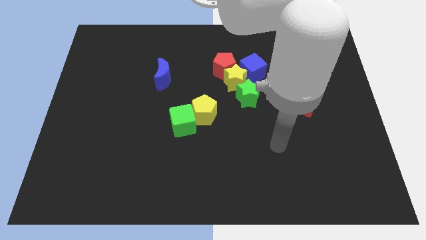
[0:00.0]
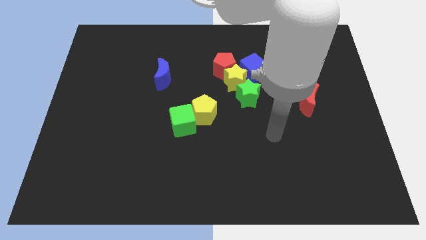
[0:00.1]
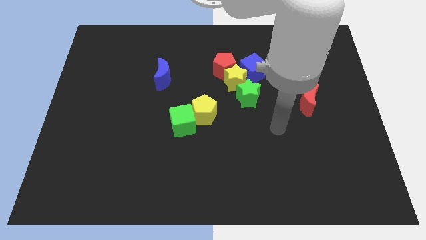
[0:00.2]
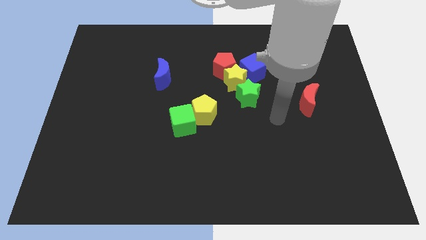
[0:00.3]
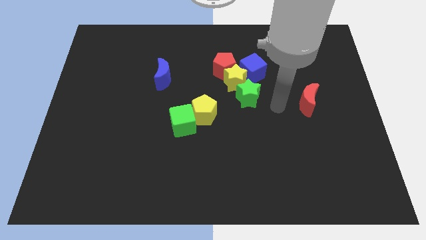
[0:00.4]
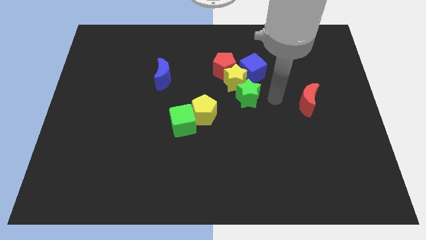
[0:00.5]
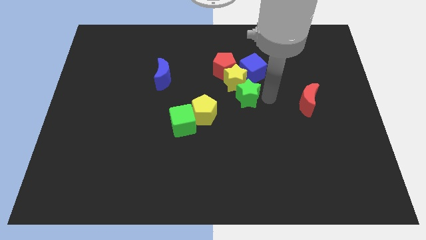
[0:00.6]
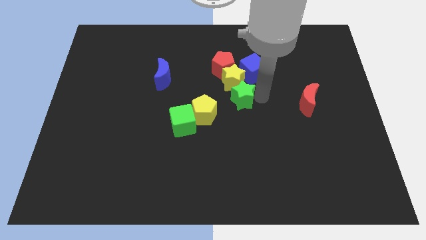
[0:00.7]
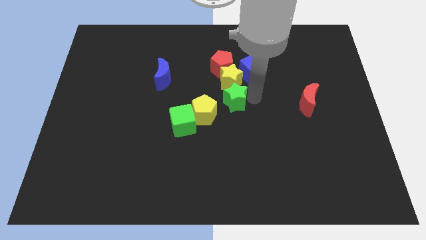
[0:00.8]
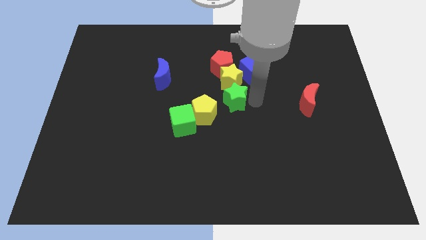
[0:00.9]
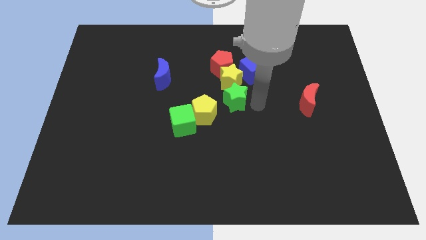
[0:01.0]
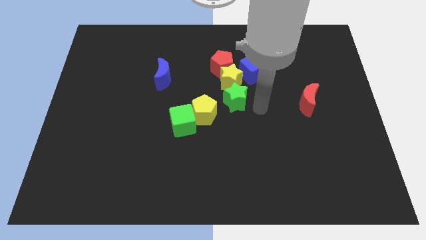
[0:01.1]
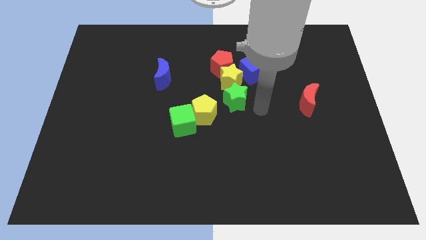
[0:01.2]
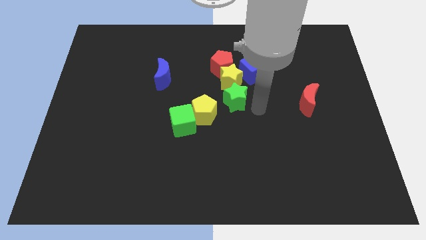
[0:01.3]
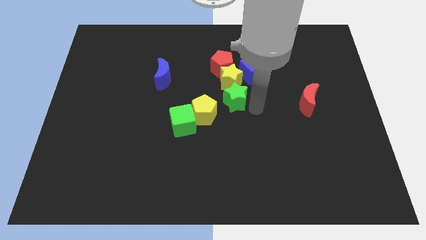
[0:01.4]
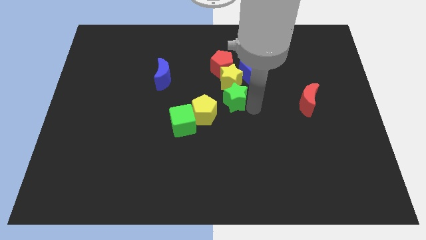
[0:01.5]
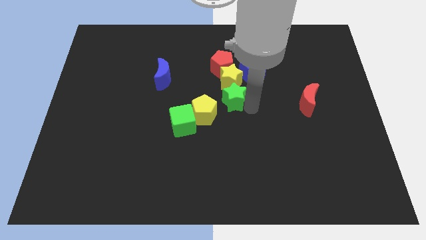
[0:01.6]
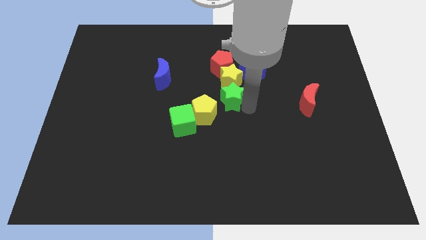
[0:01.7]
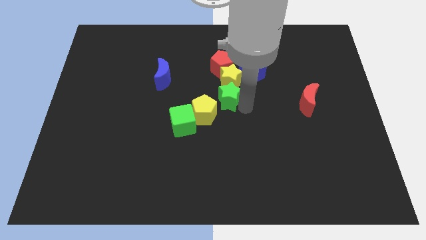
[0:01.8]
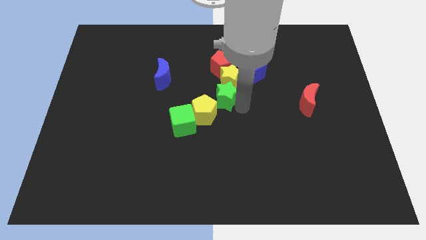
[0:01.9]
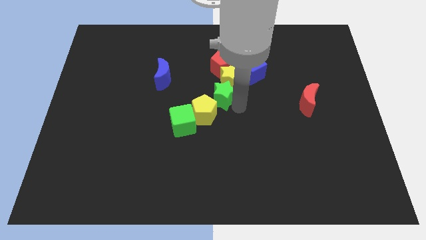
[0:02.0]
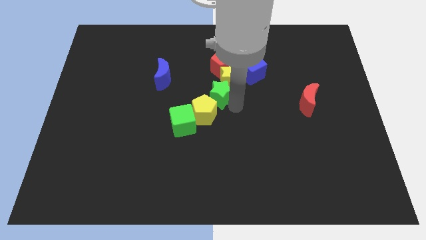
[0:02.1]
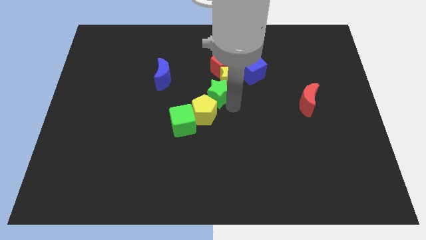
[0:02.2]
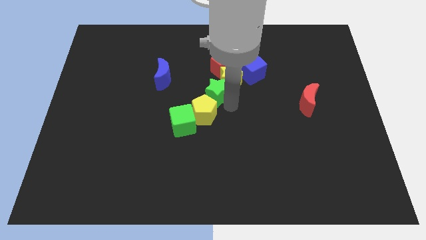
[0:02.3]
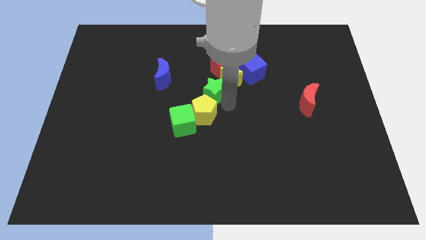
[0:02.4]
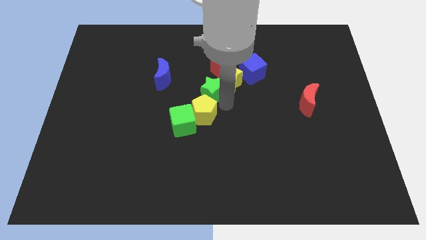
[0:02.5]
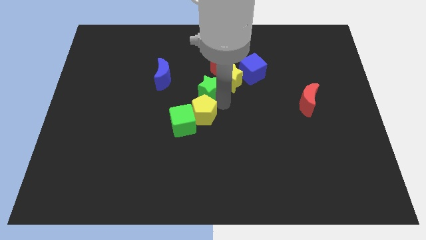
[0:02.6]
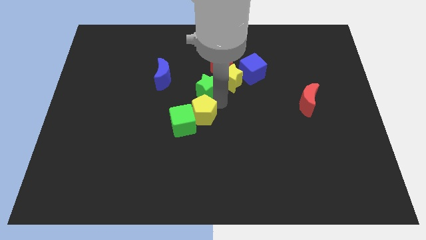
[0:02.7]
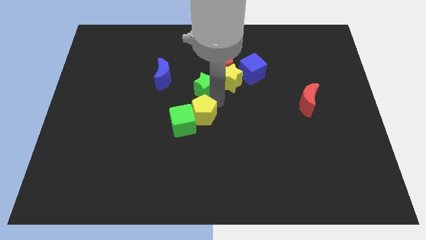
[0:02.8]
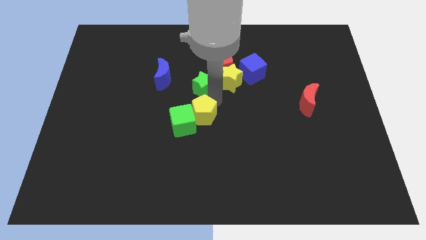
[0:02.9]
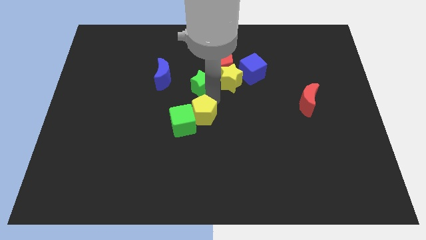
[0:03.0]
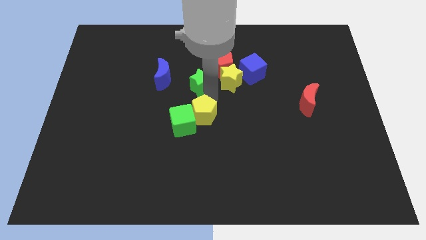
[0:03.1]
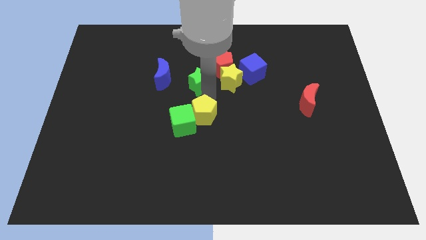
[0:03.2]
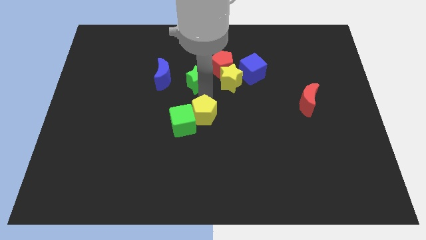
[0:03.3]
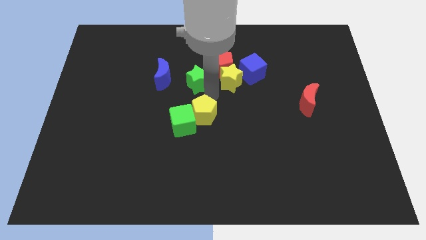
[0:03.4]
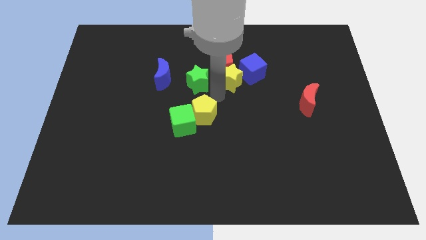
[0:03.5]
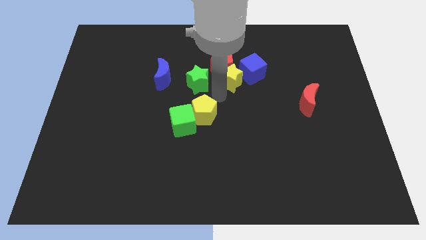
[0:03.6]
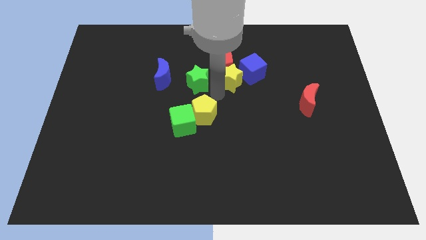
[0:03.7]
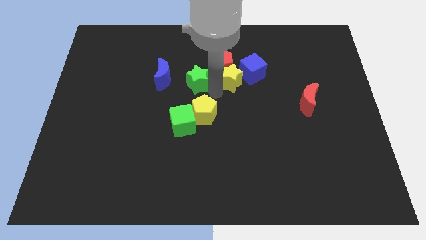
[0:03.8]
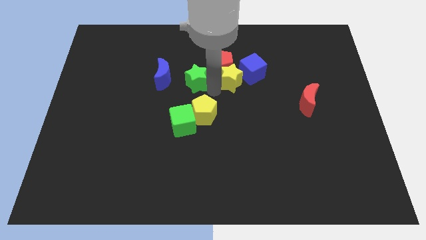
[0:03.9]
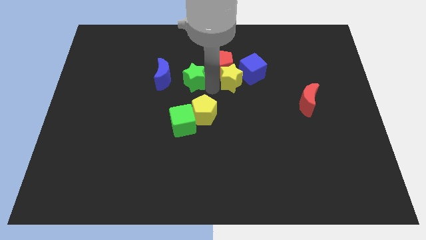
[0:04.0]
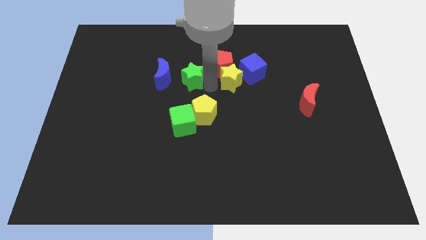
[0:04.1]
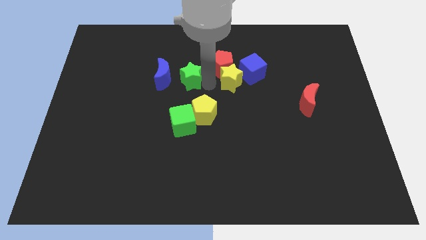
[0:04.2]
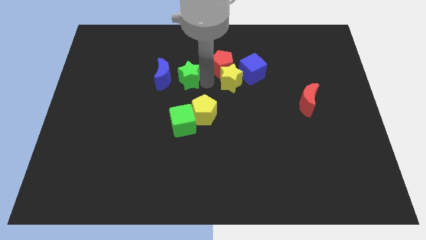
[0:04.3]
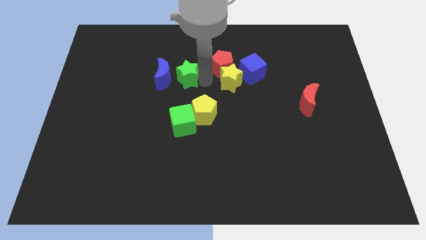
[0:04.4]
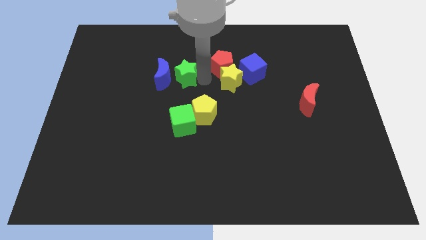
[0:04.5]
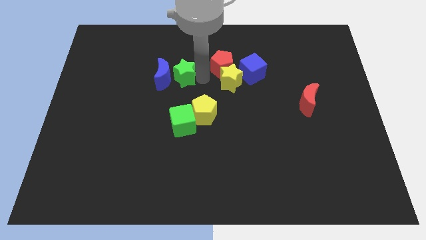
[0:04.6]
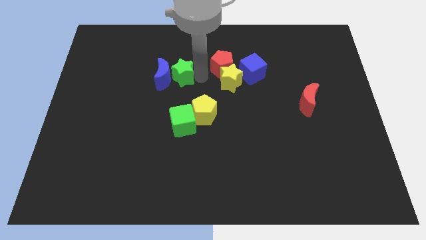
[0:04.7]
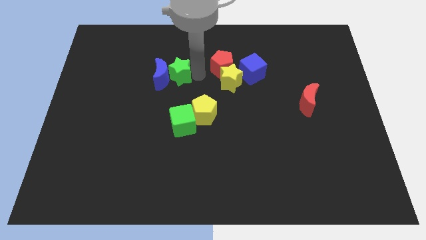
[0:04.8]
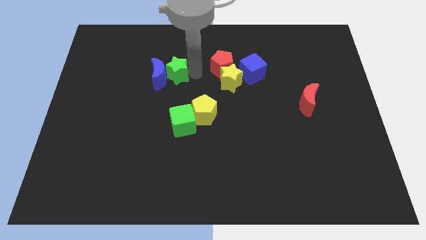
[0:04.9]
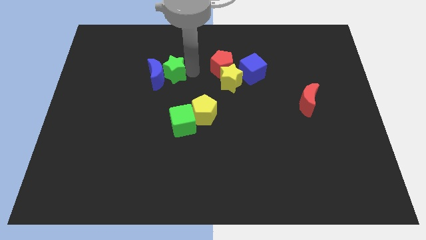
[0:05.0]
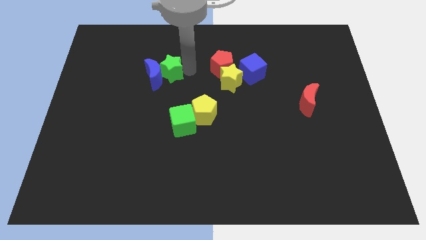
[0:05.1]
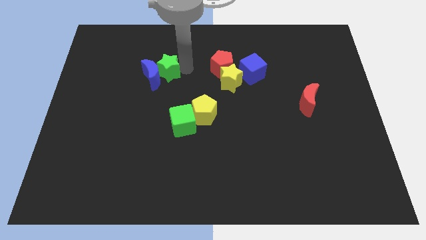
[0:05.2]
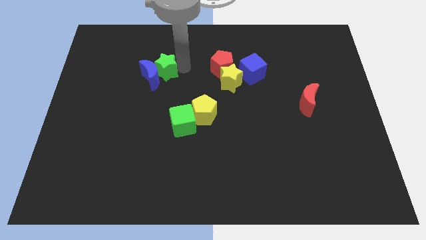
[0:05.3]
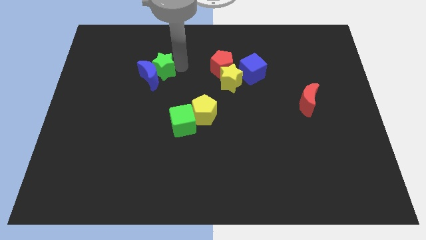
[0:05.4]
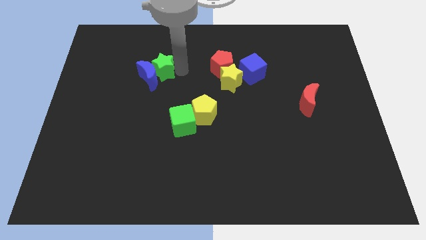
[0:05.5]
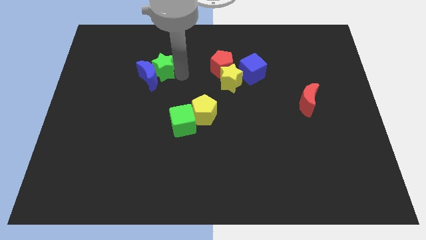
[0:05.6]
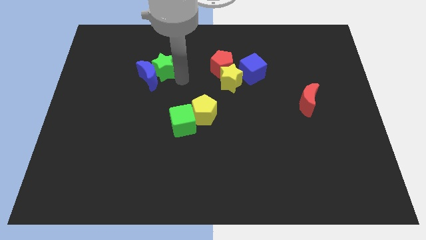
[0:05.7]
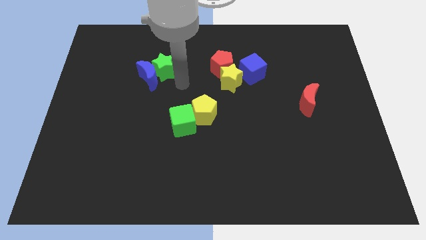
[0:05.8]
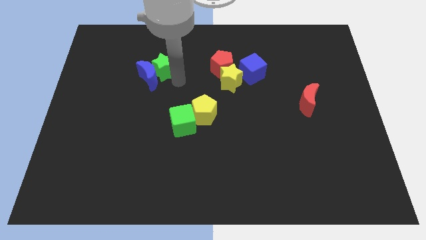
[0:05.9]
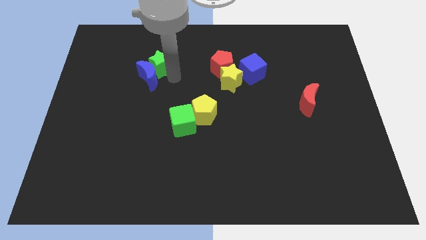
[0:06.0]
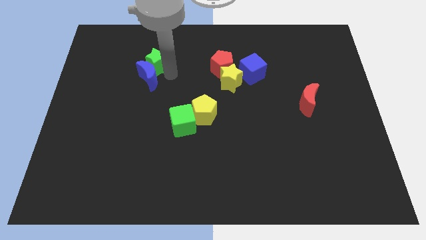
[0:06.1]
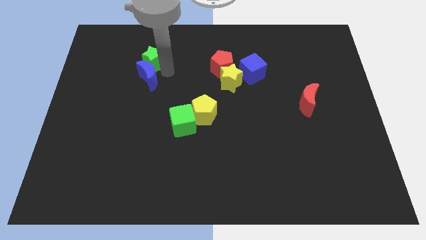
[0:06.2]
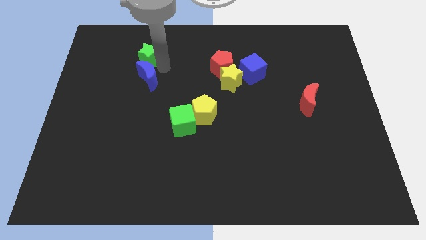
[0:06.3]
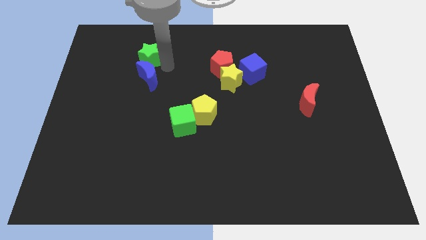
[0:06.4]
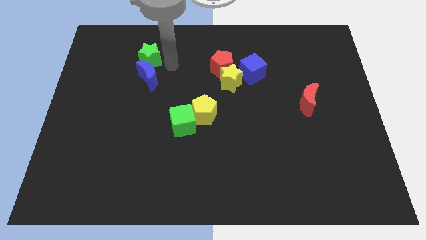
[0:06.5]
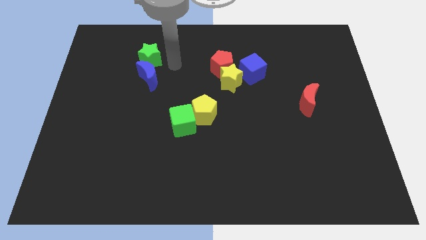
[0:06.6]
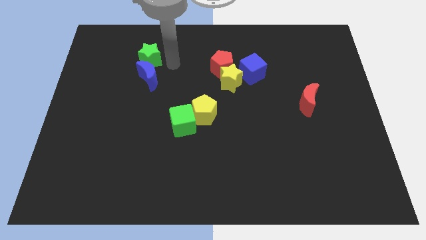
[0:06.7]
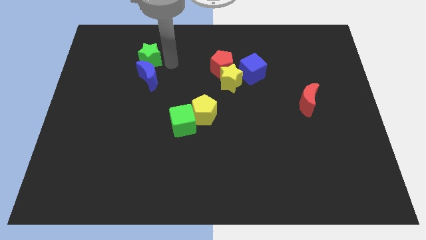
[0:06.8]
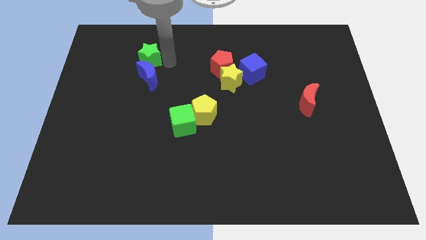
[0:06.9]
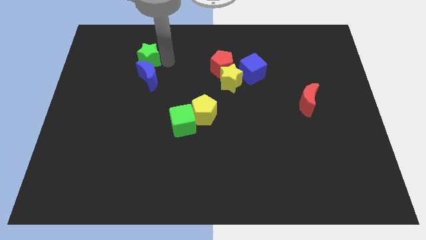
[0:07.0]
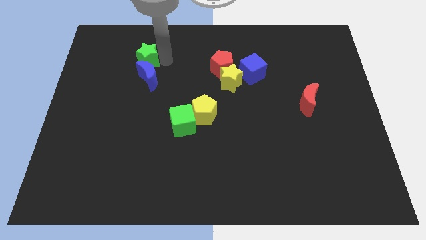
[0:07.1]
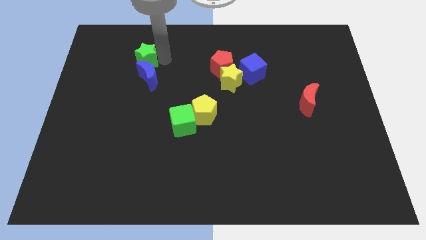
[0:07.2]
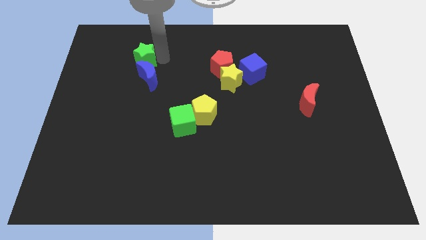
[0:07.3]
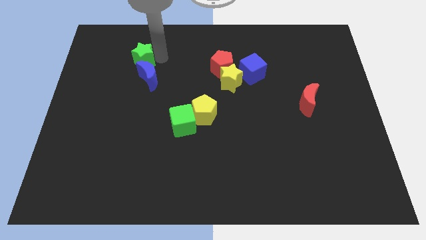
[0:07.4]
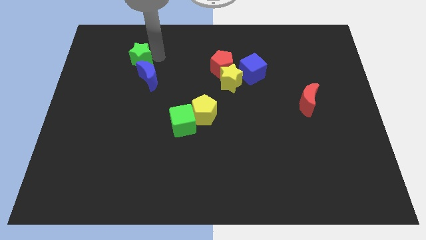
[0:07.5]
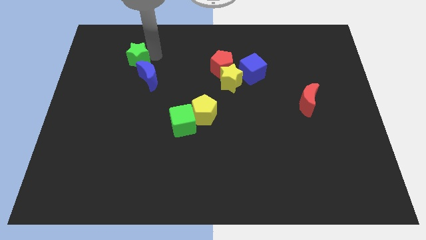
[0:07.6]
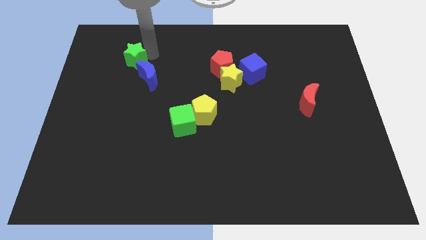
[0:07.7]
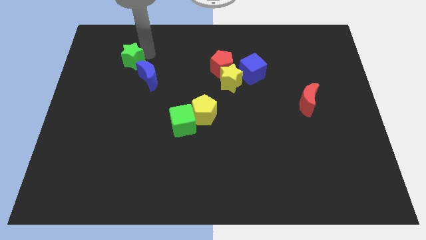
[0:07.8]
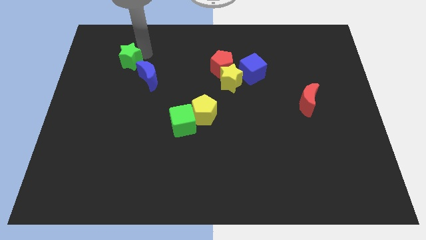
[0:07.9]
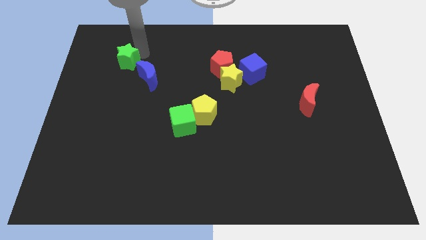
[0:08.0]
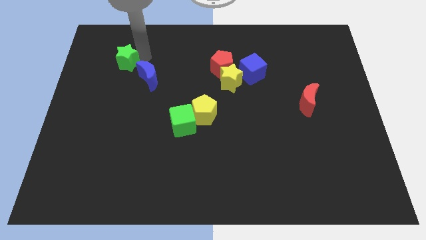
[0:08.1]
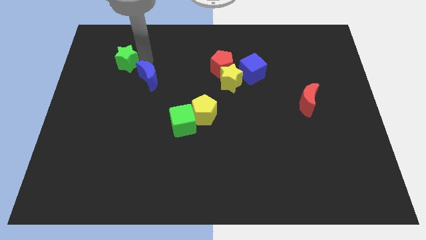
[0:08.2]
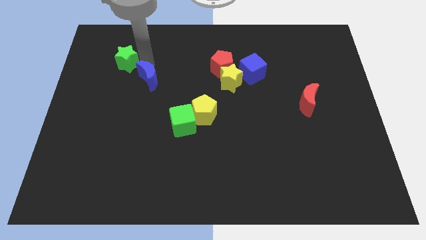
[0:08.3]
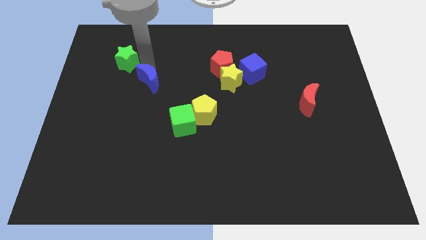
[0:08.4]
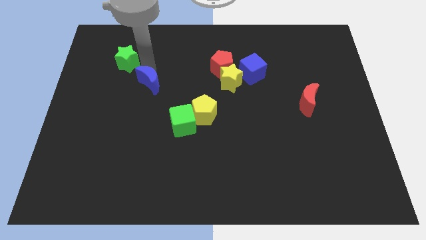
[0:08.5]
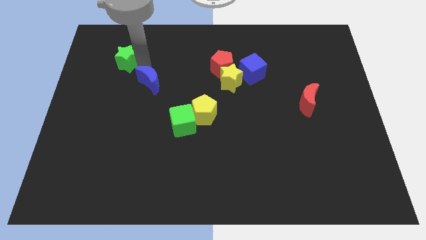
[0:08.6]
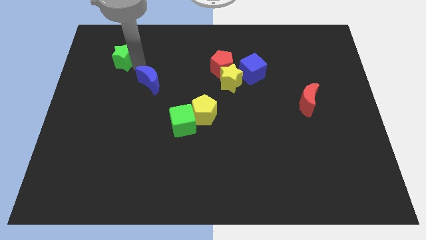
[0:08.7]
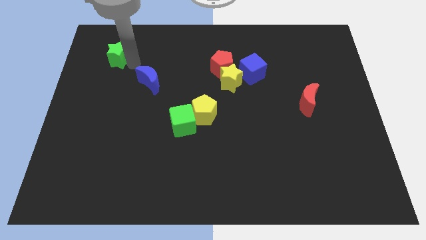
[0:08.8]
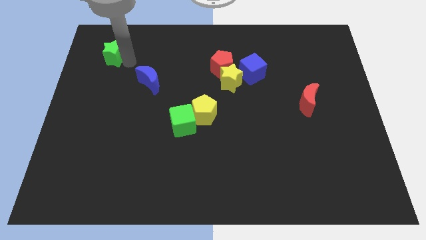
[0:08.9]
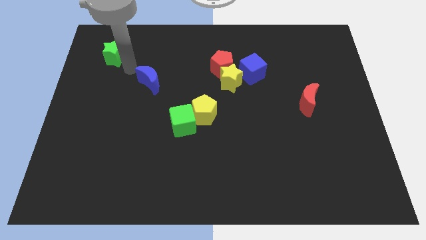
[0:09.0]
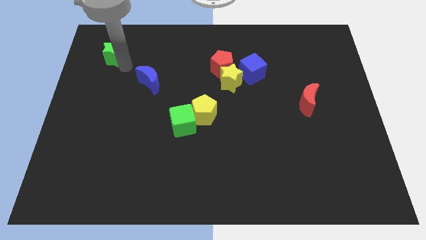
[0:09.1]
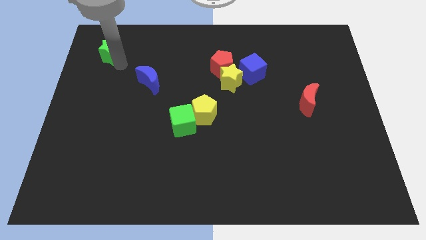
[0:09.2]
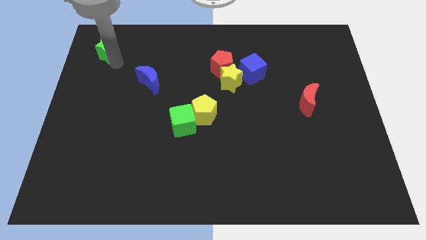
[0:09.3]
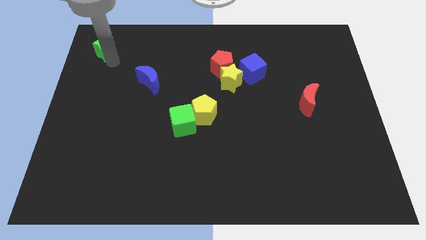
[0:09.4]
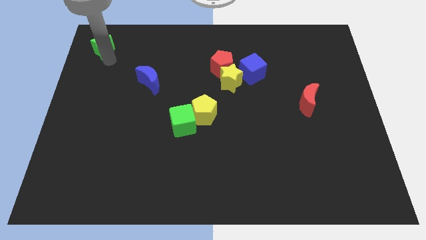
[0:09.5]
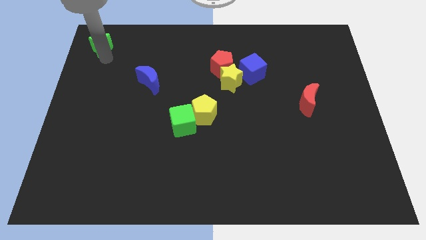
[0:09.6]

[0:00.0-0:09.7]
slide the green star to the top left corner
